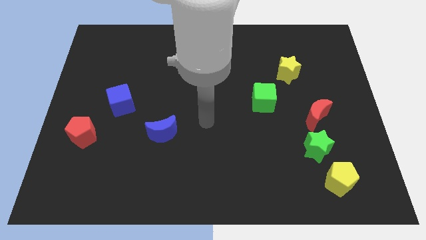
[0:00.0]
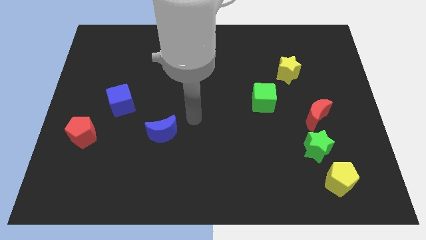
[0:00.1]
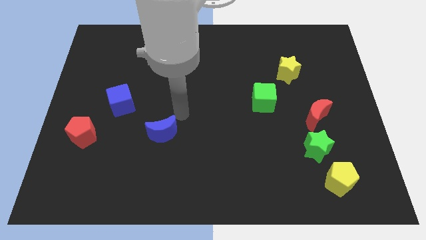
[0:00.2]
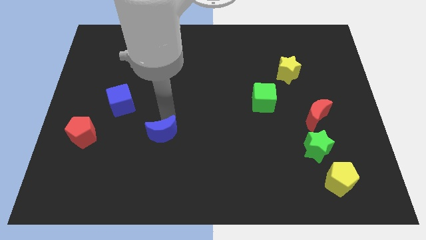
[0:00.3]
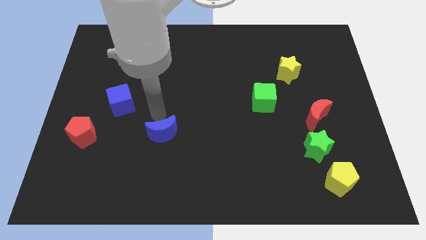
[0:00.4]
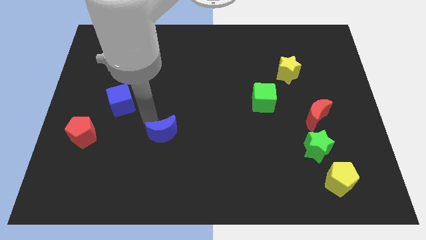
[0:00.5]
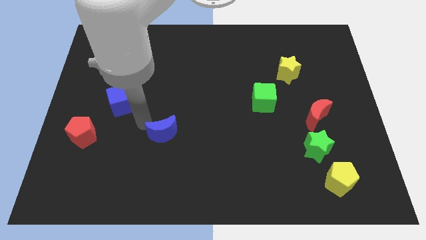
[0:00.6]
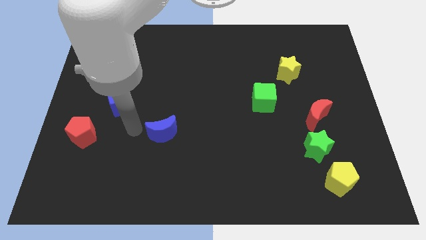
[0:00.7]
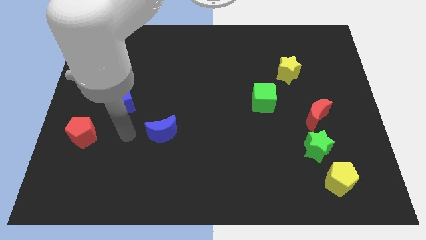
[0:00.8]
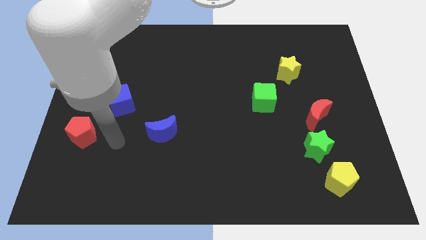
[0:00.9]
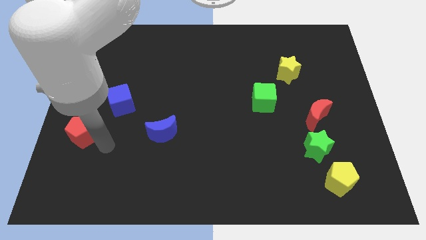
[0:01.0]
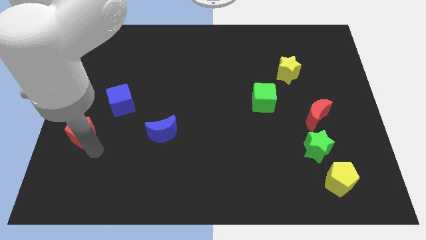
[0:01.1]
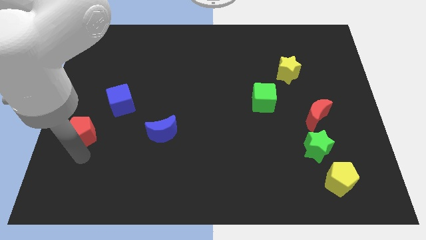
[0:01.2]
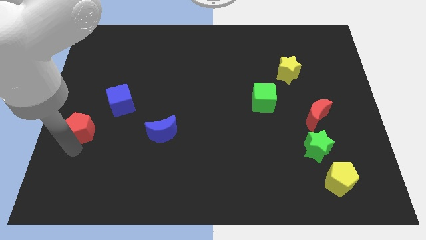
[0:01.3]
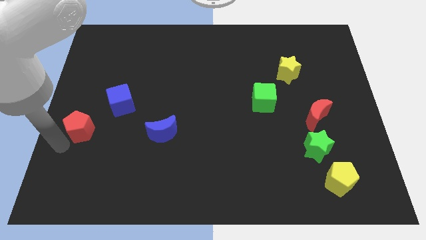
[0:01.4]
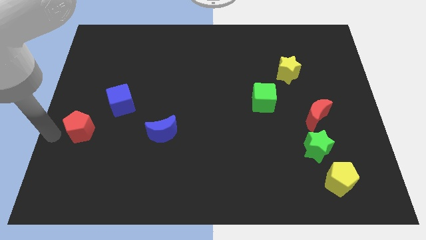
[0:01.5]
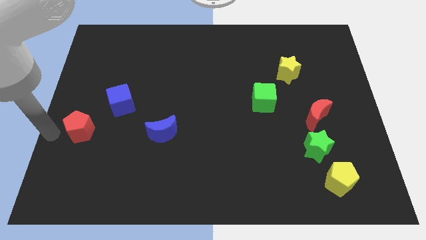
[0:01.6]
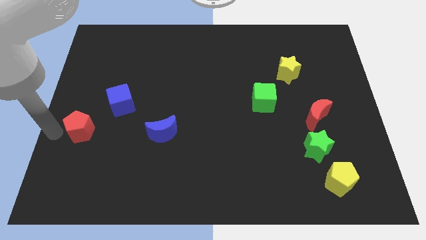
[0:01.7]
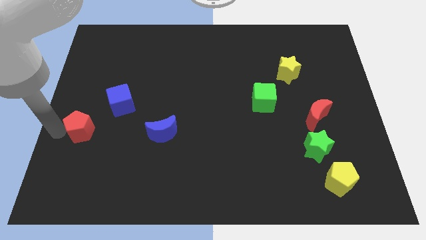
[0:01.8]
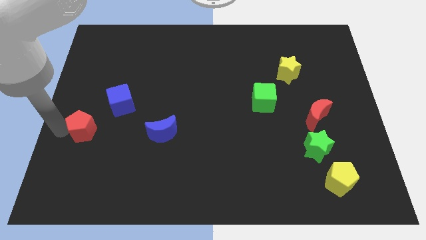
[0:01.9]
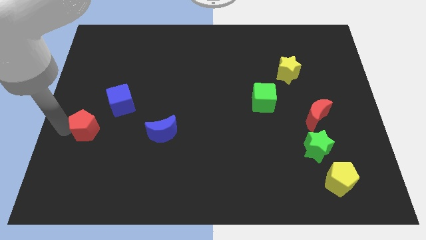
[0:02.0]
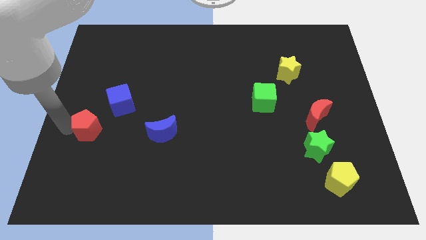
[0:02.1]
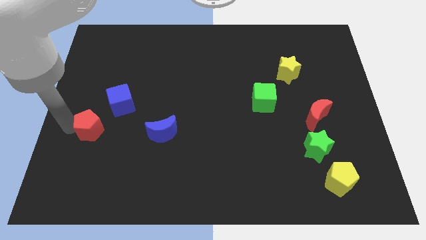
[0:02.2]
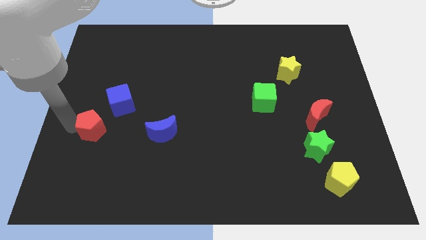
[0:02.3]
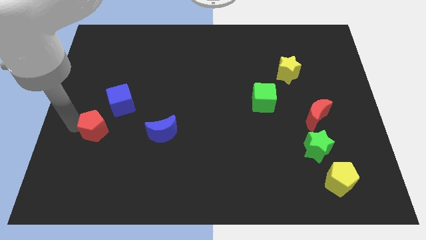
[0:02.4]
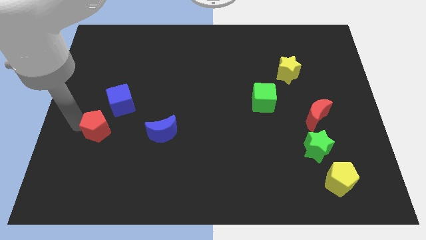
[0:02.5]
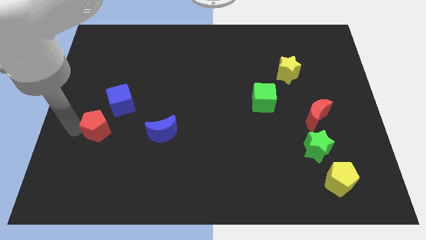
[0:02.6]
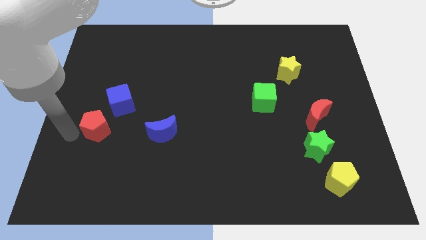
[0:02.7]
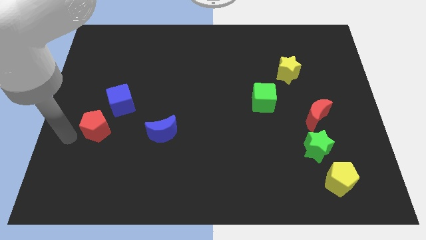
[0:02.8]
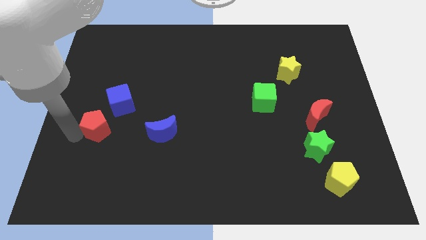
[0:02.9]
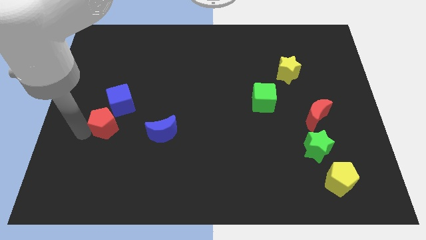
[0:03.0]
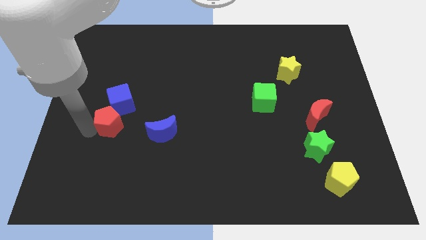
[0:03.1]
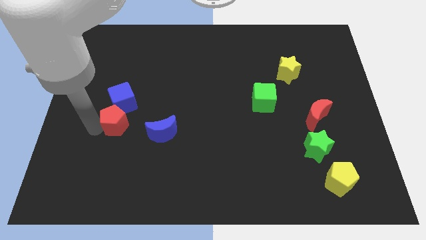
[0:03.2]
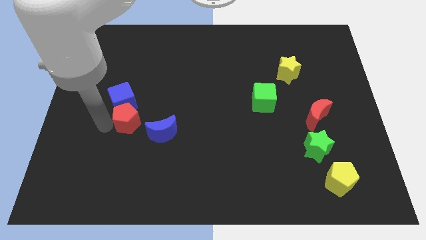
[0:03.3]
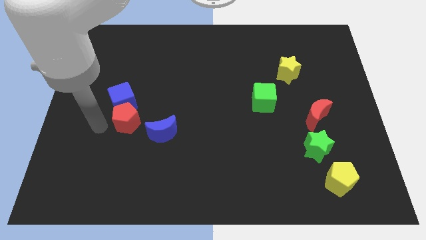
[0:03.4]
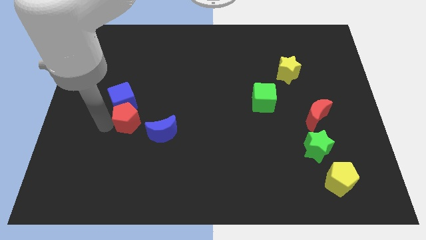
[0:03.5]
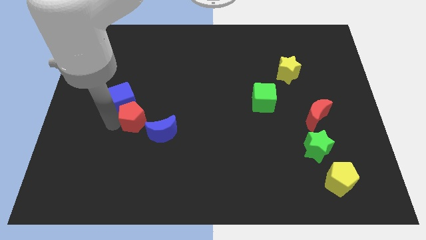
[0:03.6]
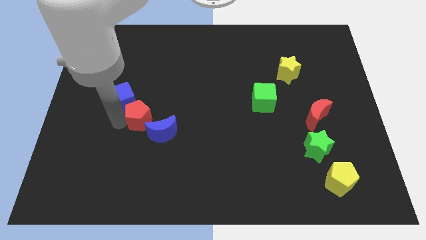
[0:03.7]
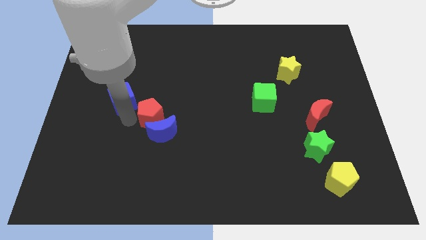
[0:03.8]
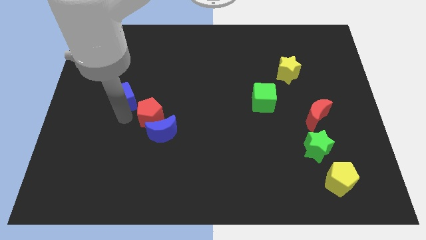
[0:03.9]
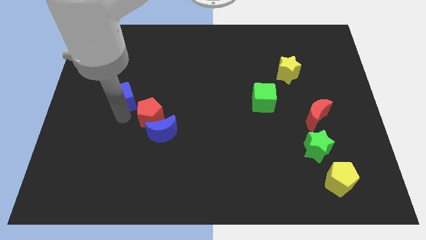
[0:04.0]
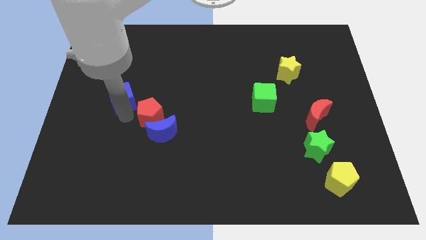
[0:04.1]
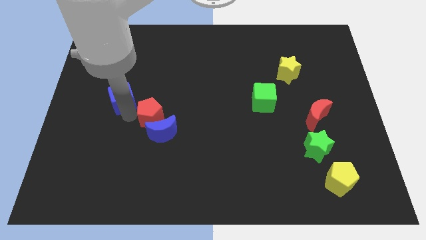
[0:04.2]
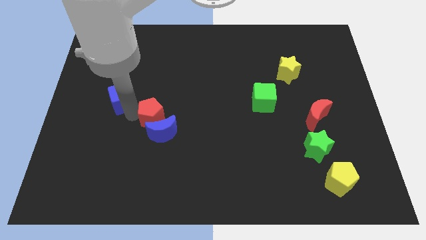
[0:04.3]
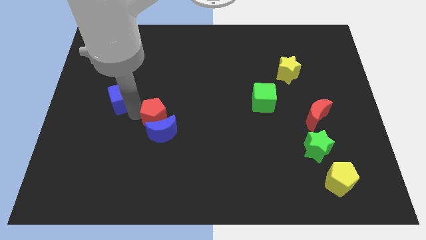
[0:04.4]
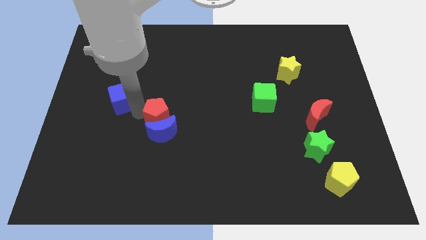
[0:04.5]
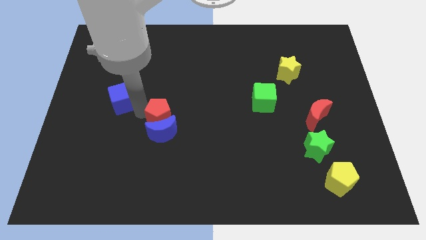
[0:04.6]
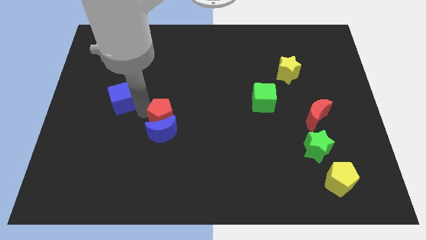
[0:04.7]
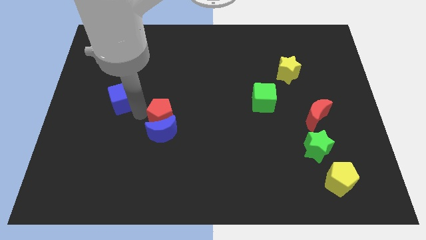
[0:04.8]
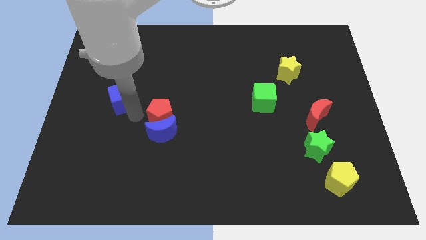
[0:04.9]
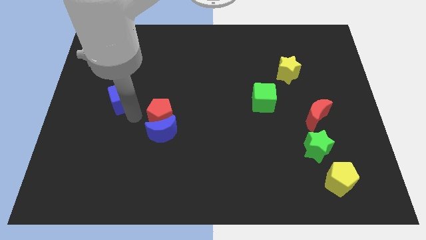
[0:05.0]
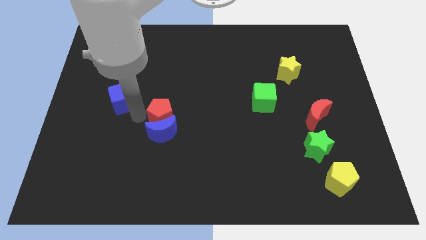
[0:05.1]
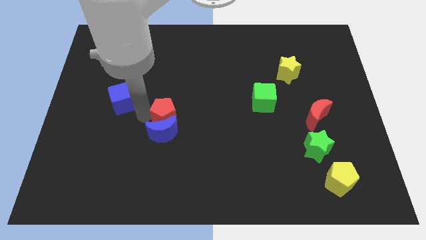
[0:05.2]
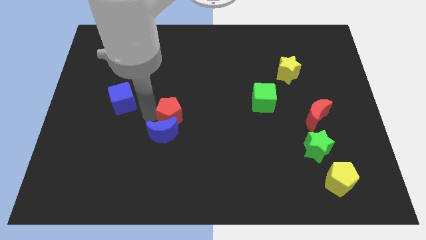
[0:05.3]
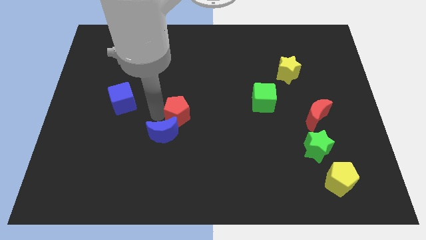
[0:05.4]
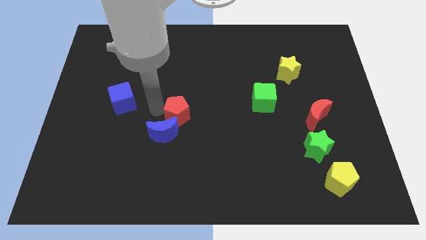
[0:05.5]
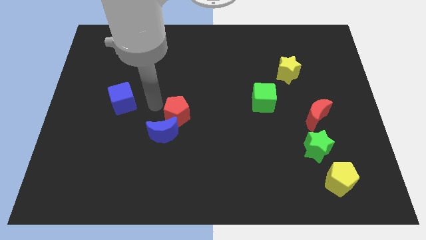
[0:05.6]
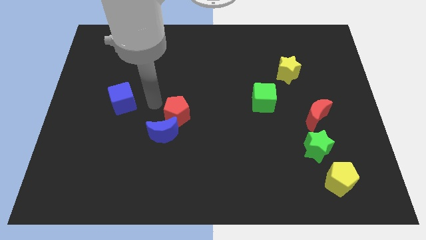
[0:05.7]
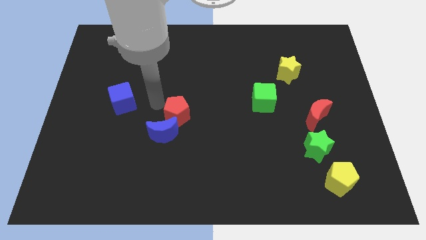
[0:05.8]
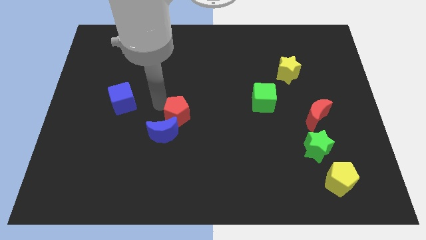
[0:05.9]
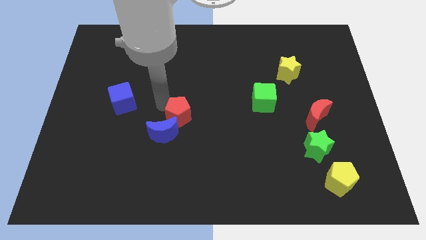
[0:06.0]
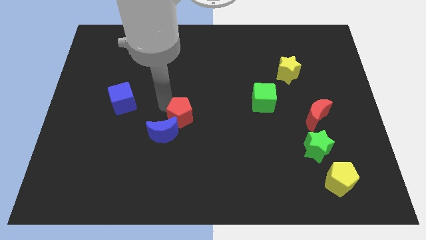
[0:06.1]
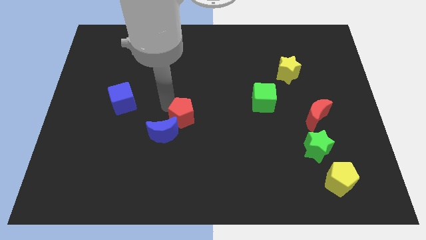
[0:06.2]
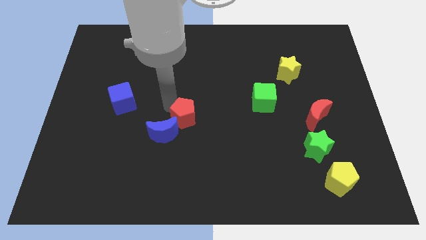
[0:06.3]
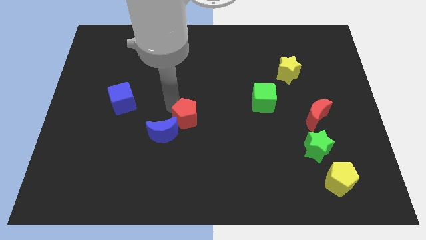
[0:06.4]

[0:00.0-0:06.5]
push the red pentagon to the right side of the blue moon

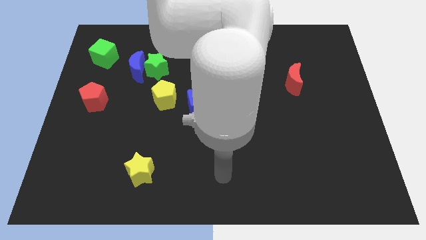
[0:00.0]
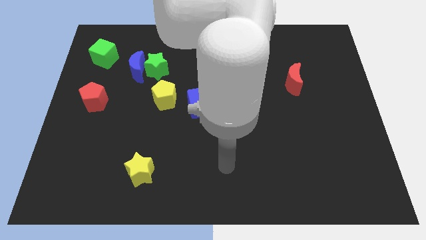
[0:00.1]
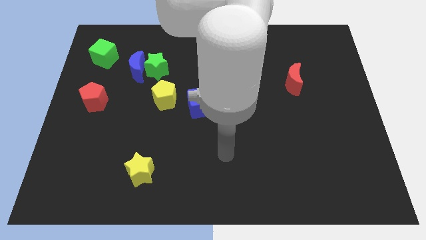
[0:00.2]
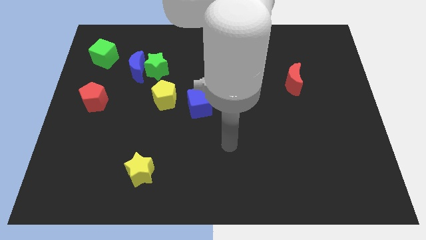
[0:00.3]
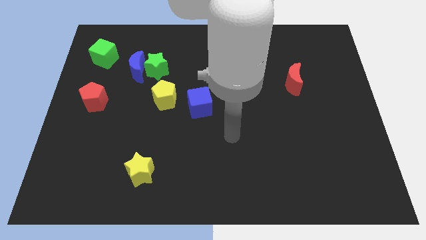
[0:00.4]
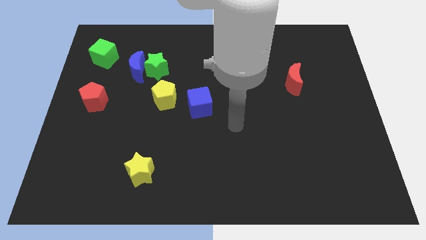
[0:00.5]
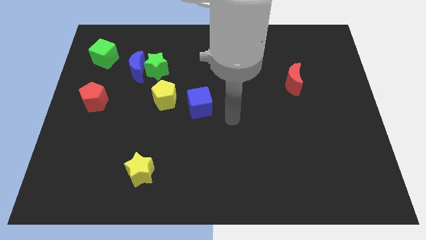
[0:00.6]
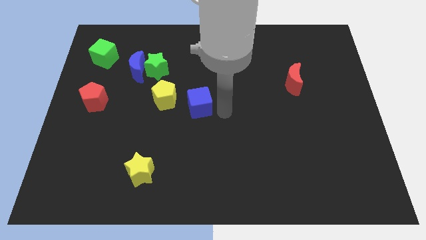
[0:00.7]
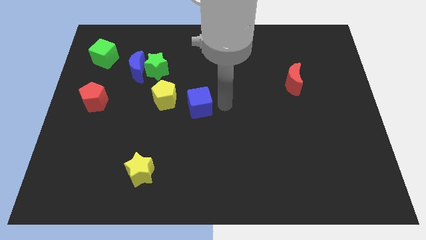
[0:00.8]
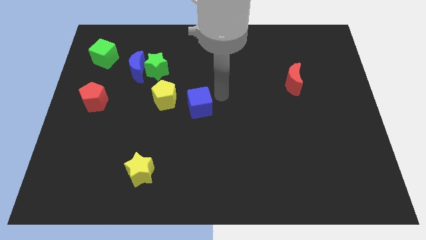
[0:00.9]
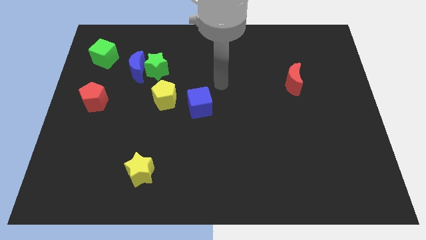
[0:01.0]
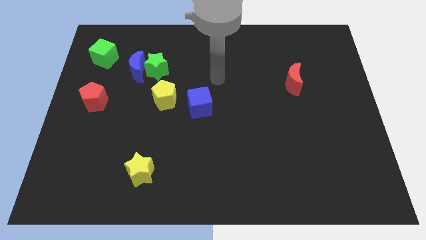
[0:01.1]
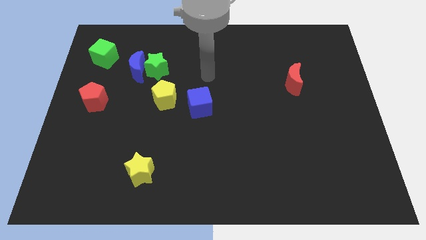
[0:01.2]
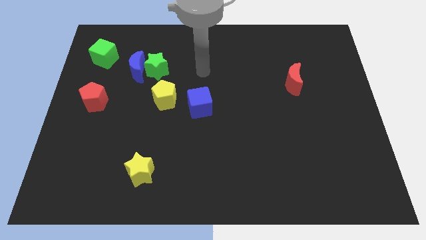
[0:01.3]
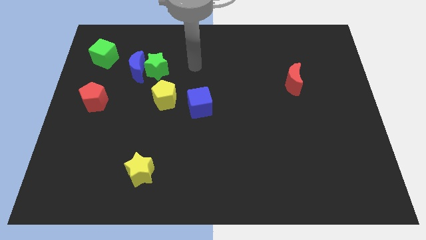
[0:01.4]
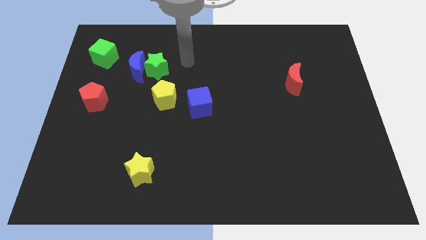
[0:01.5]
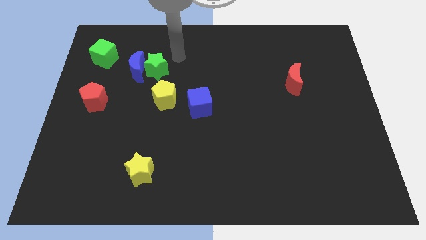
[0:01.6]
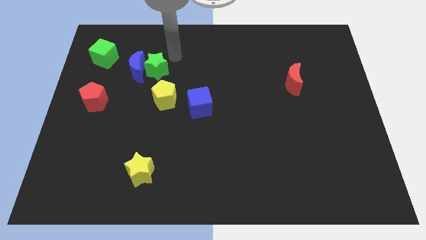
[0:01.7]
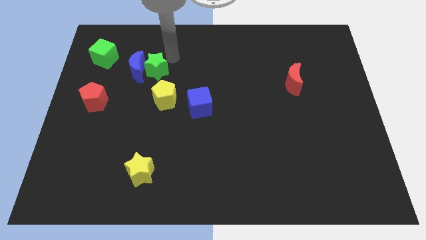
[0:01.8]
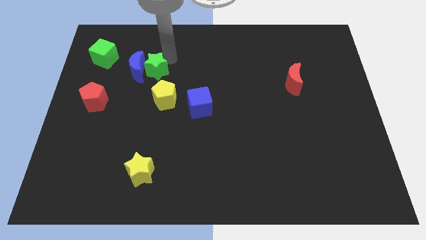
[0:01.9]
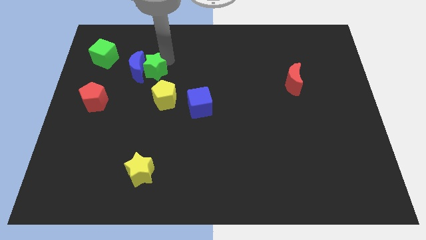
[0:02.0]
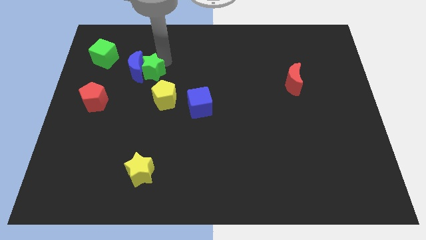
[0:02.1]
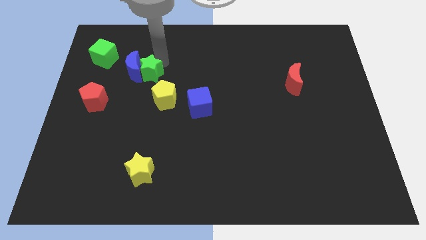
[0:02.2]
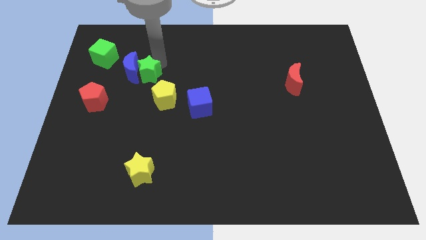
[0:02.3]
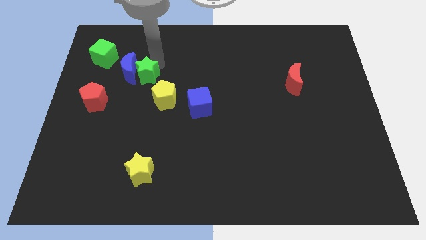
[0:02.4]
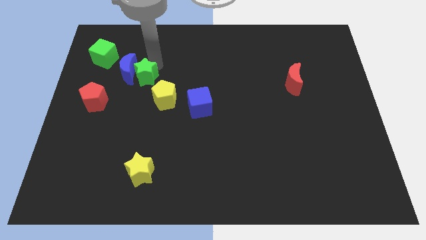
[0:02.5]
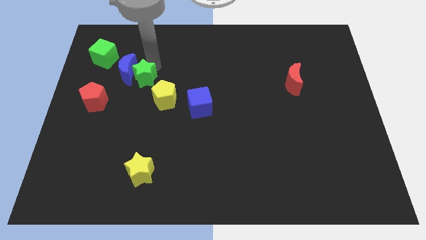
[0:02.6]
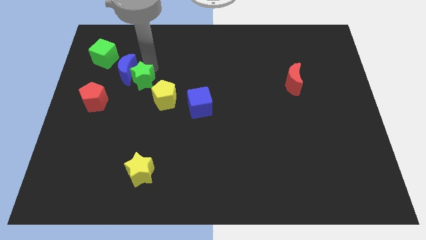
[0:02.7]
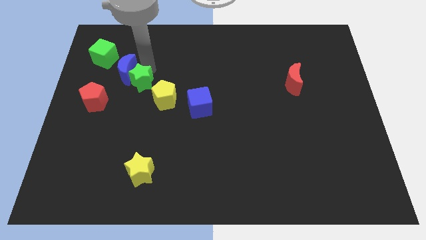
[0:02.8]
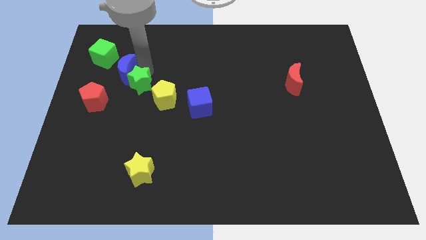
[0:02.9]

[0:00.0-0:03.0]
move the green star to the left side of the yellow pentagon
